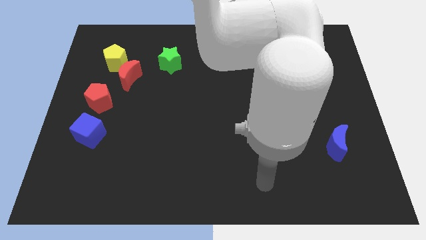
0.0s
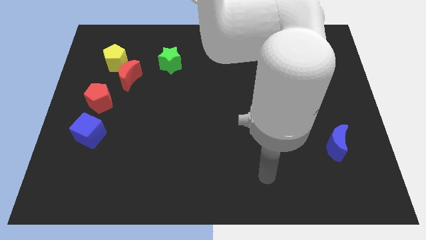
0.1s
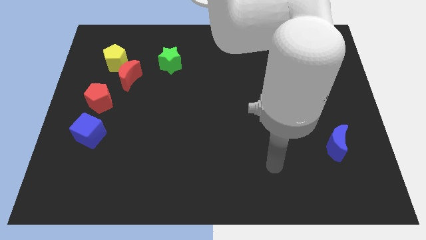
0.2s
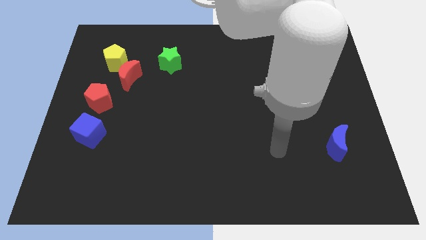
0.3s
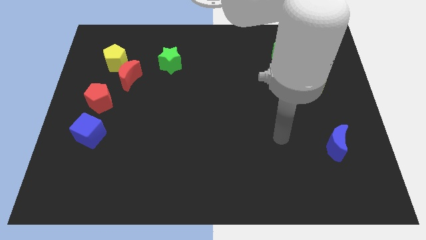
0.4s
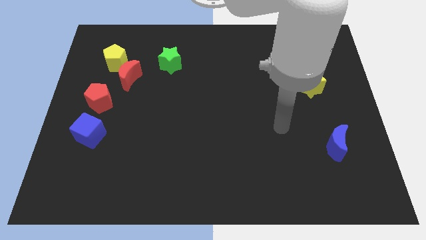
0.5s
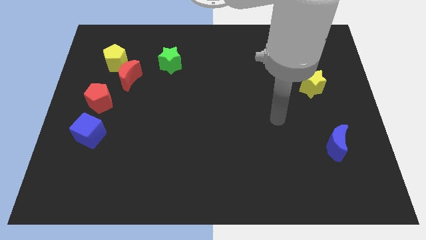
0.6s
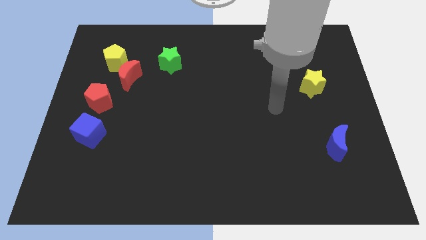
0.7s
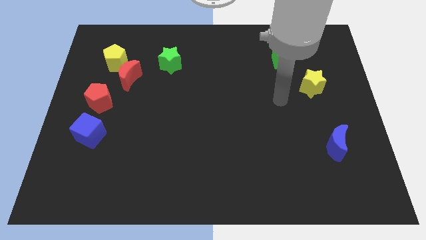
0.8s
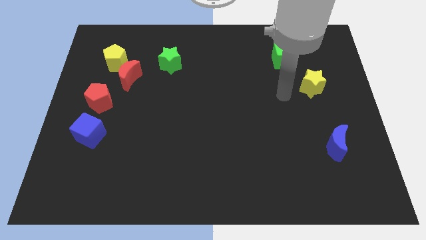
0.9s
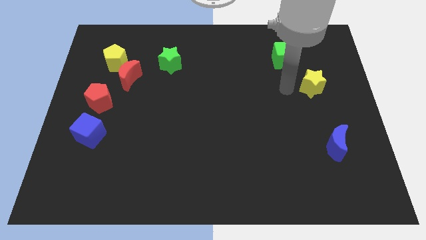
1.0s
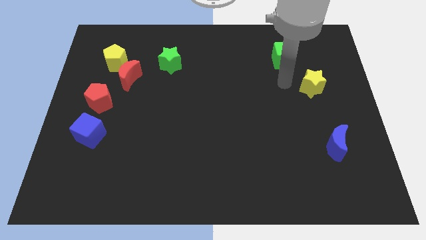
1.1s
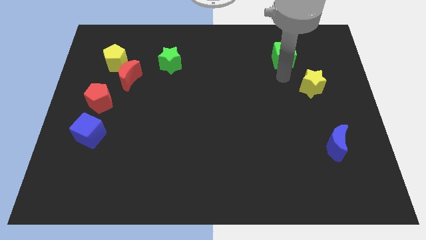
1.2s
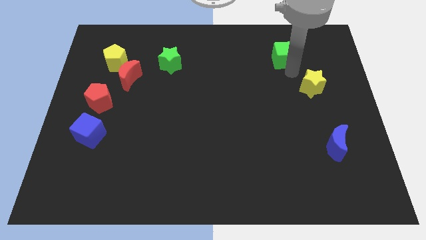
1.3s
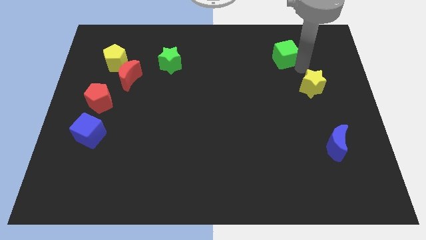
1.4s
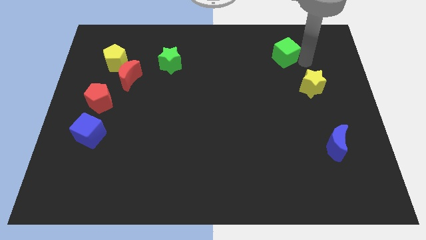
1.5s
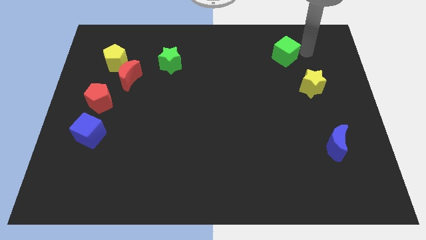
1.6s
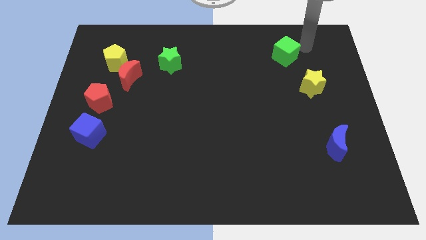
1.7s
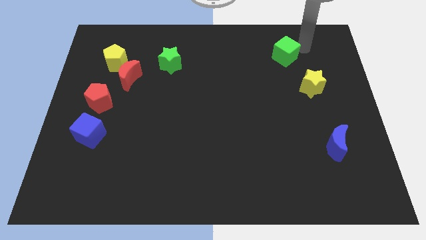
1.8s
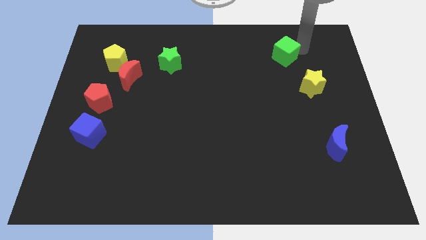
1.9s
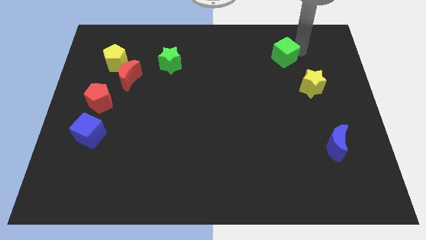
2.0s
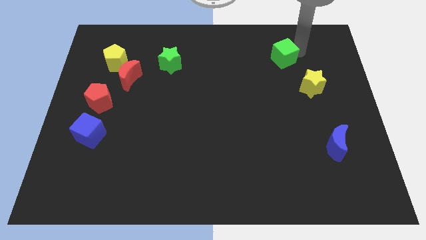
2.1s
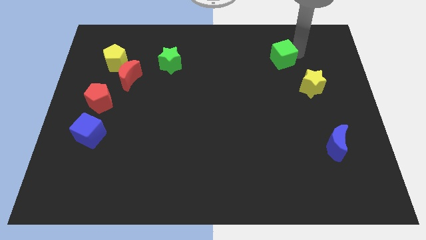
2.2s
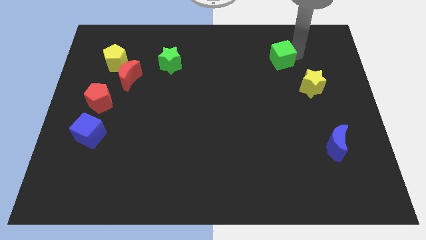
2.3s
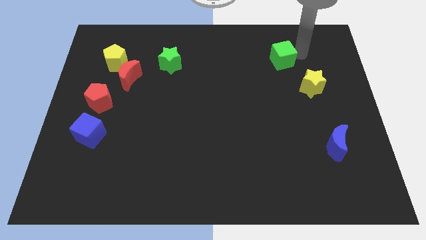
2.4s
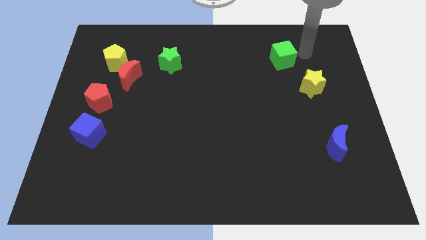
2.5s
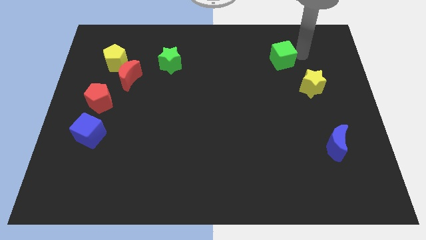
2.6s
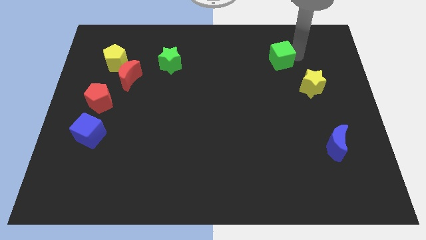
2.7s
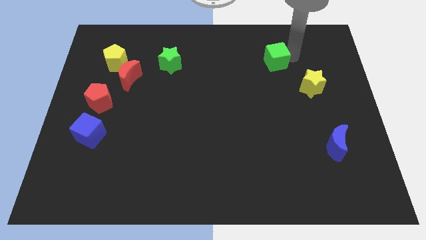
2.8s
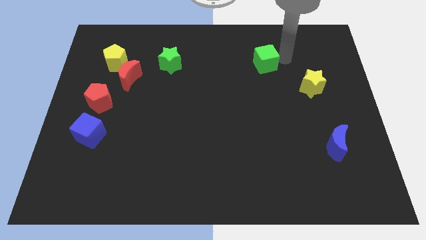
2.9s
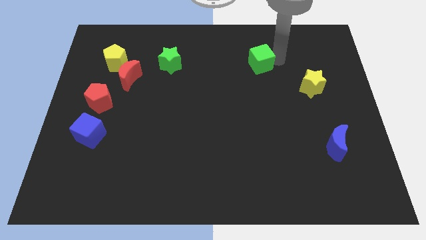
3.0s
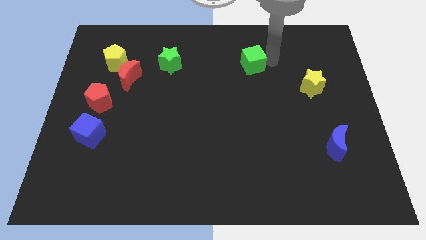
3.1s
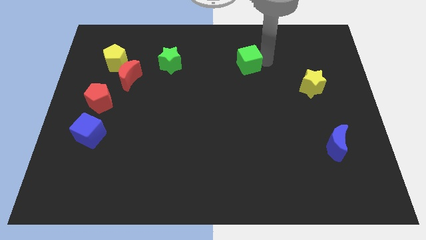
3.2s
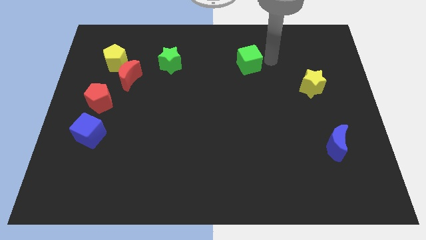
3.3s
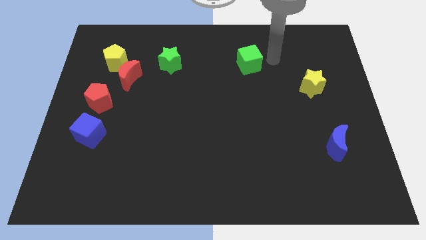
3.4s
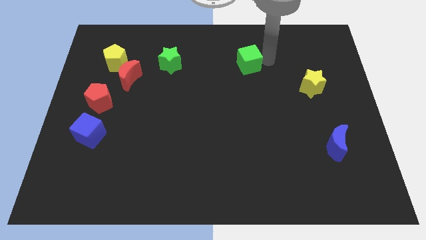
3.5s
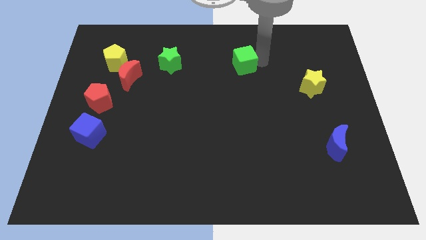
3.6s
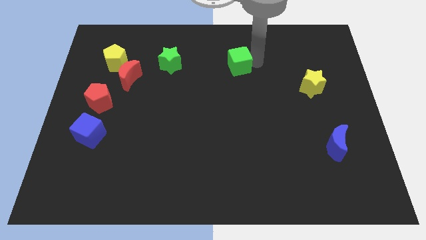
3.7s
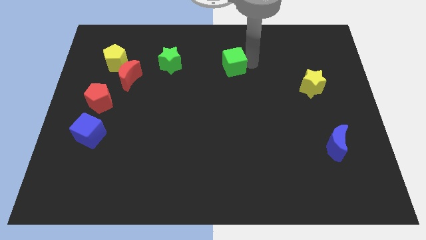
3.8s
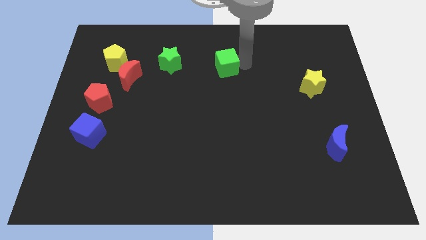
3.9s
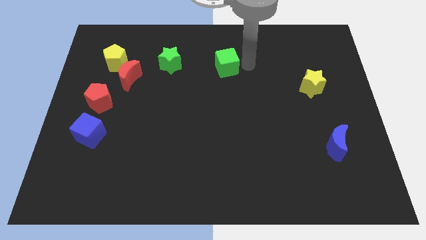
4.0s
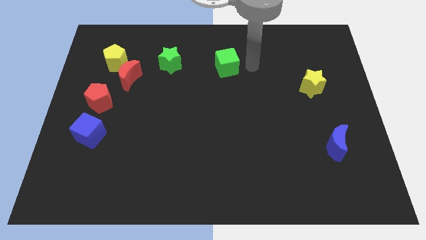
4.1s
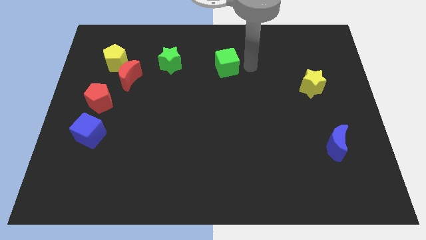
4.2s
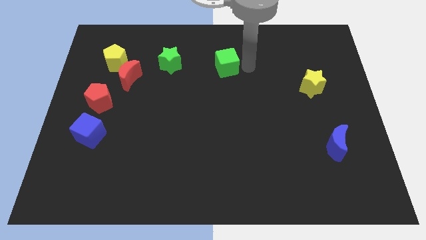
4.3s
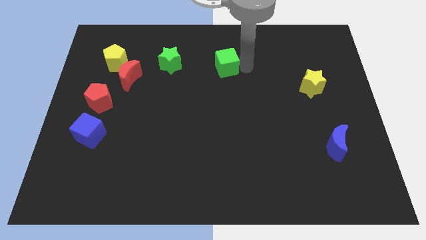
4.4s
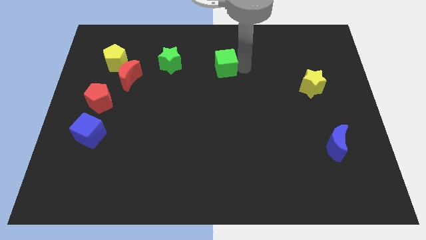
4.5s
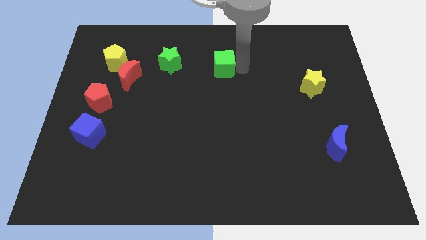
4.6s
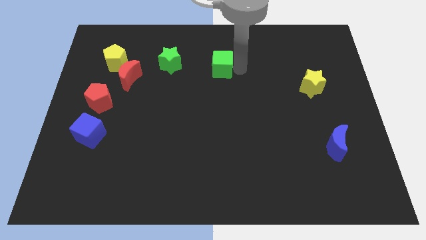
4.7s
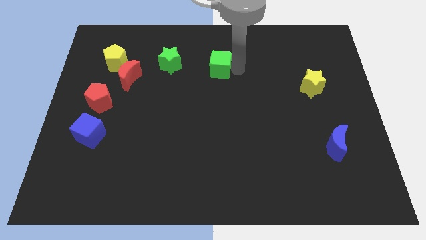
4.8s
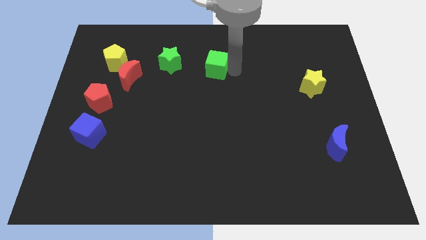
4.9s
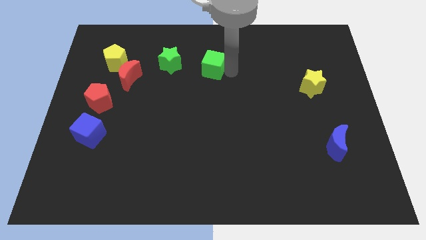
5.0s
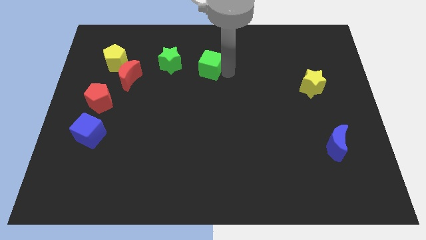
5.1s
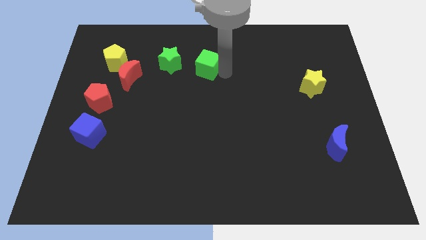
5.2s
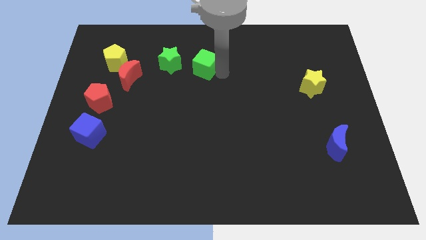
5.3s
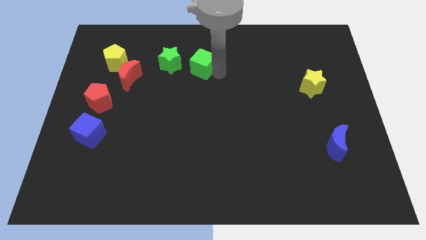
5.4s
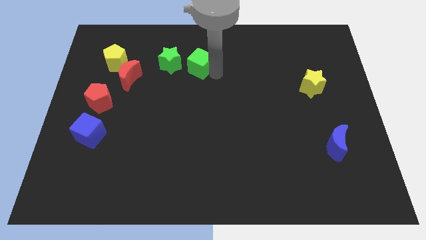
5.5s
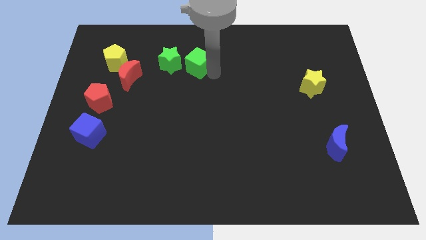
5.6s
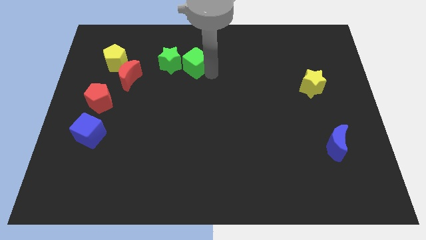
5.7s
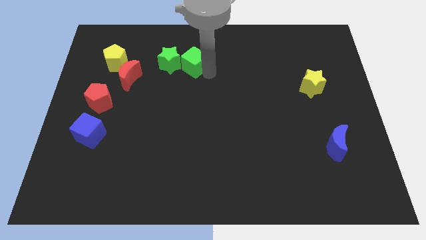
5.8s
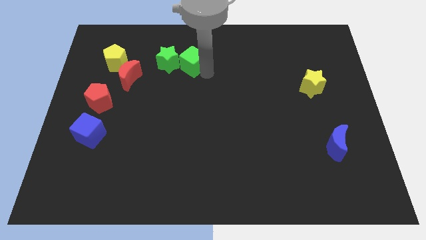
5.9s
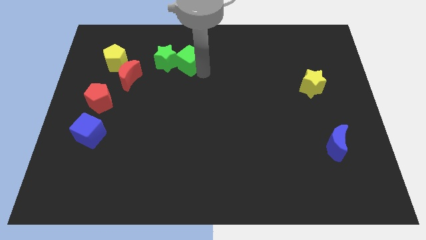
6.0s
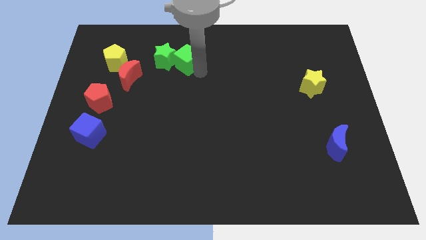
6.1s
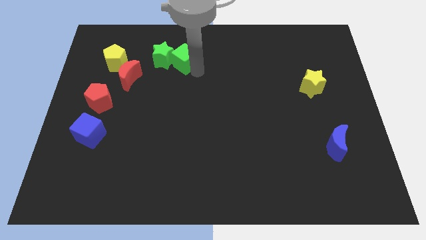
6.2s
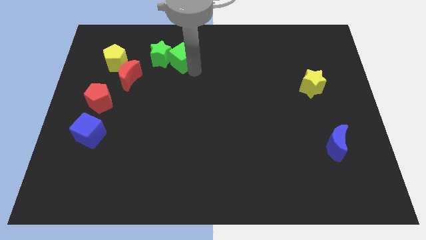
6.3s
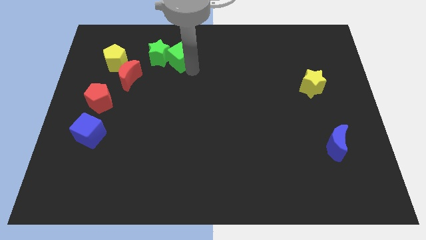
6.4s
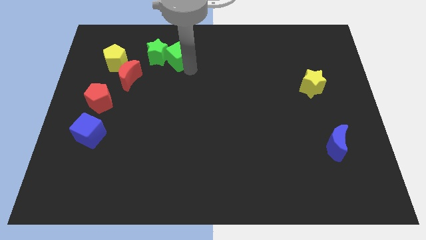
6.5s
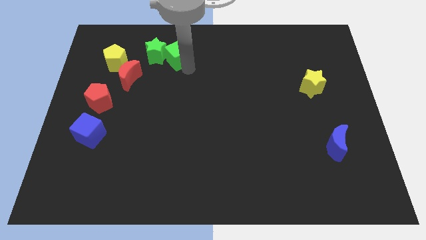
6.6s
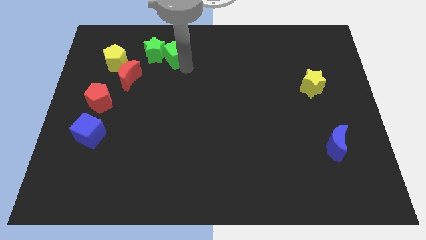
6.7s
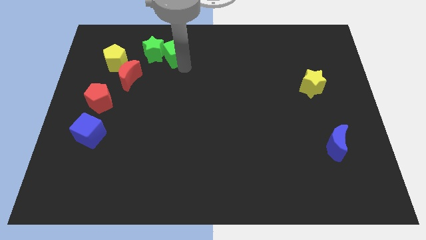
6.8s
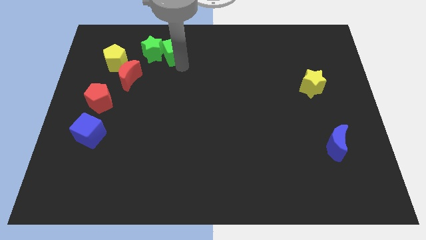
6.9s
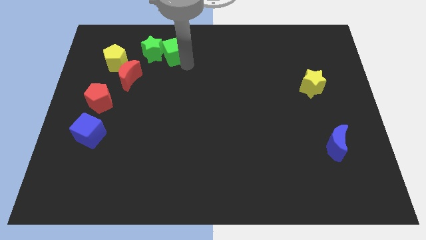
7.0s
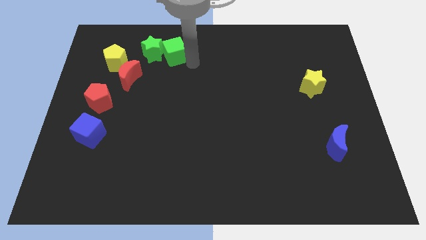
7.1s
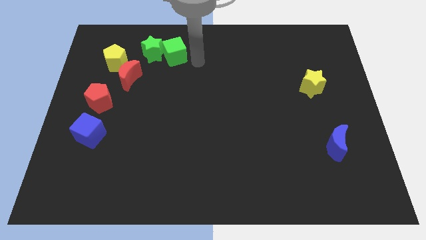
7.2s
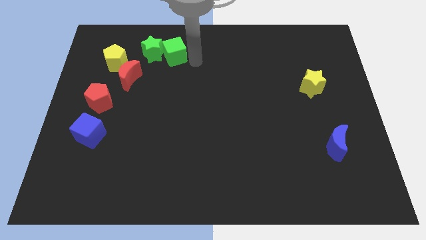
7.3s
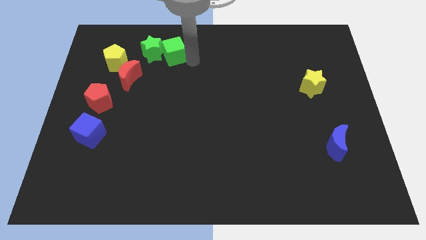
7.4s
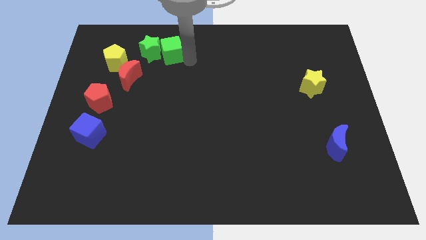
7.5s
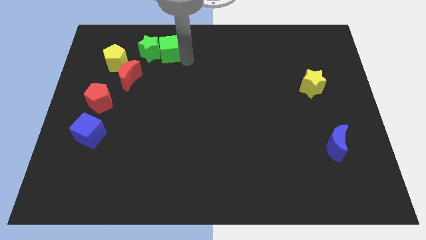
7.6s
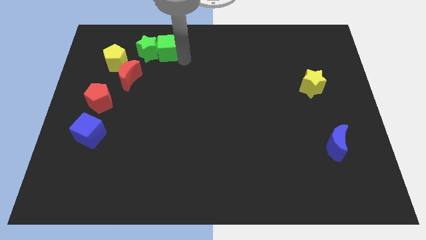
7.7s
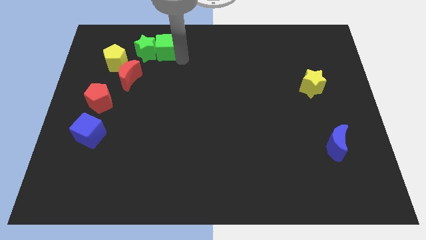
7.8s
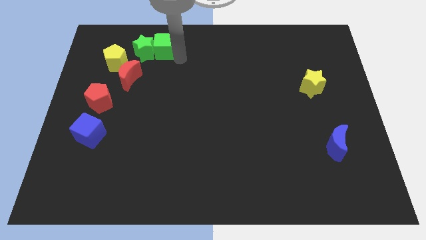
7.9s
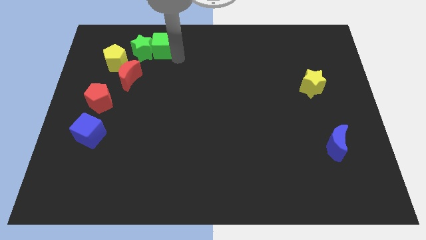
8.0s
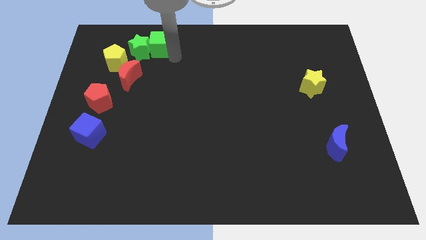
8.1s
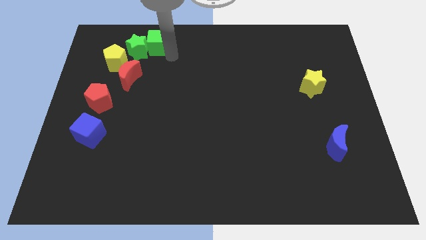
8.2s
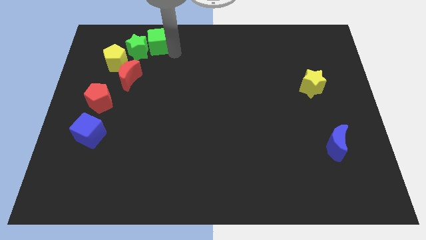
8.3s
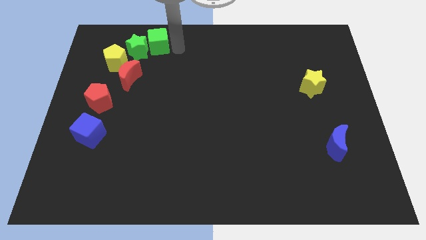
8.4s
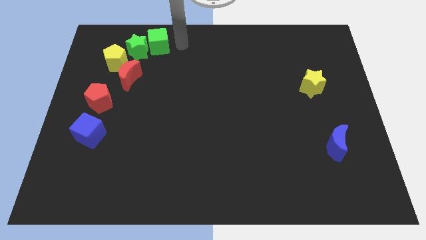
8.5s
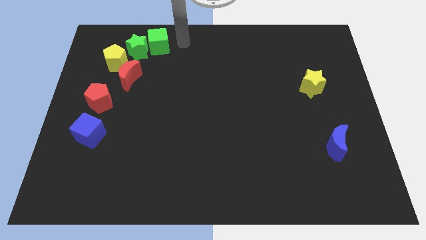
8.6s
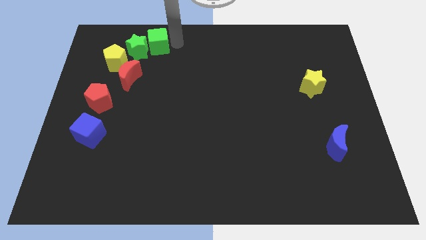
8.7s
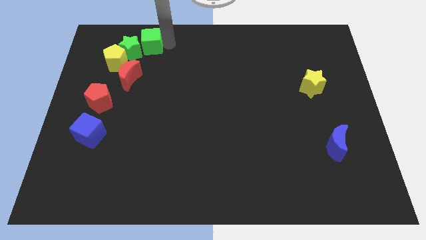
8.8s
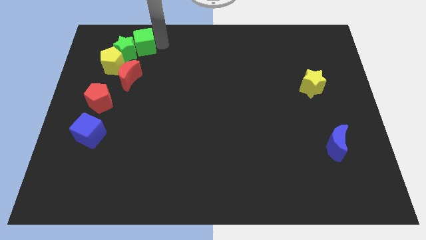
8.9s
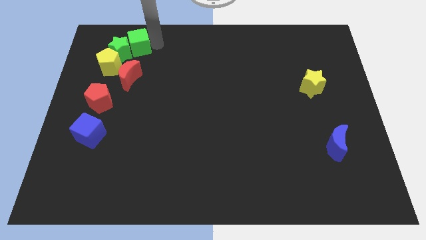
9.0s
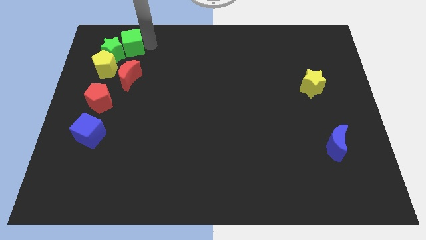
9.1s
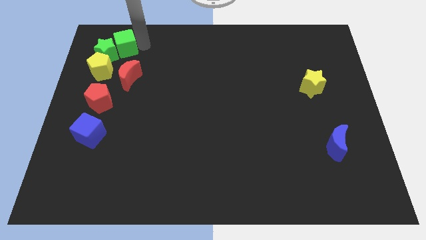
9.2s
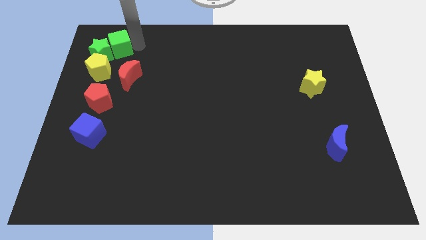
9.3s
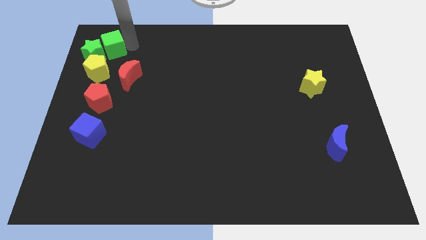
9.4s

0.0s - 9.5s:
push the green cube to the top left of the red moon
